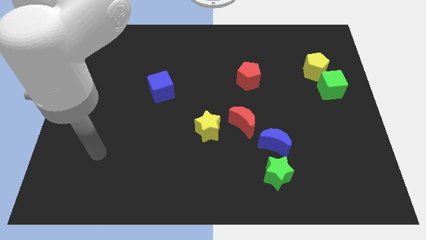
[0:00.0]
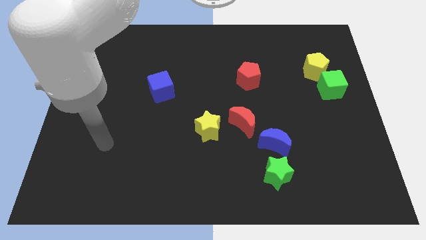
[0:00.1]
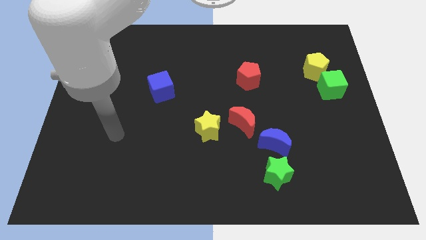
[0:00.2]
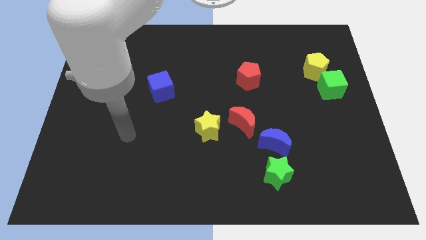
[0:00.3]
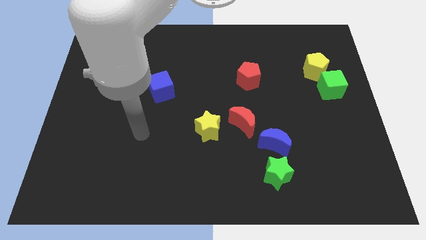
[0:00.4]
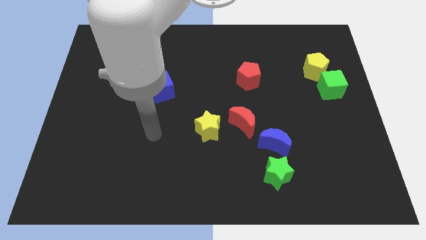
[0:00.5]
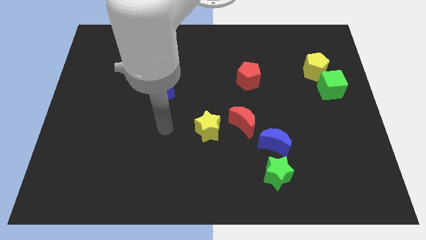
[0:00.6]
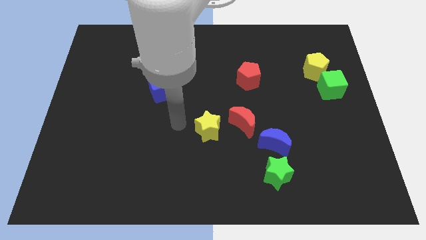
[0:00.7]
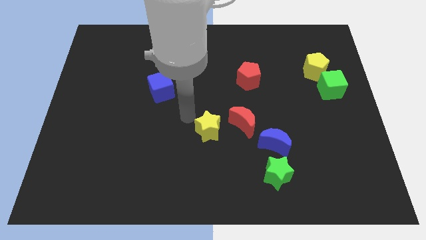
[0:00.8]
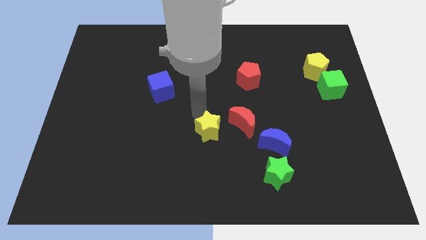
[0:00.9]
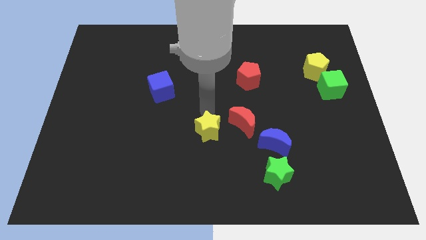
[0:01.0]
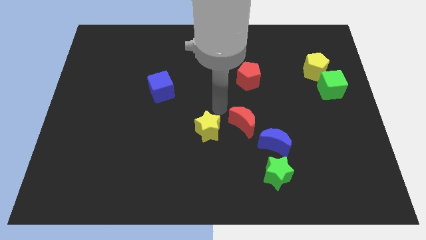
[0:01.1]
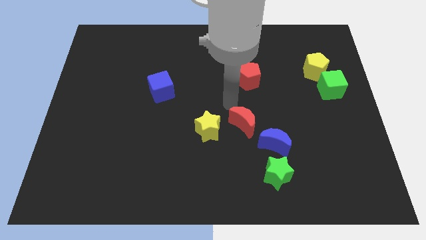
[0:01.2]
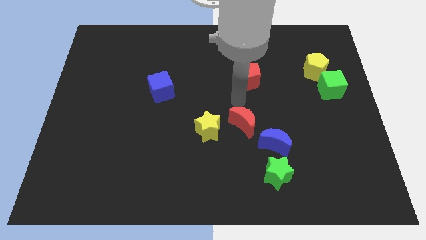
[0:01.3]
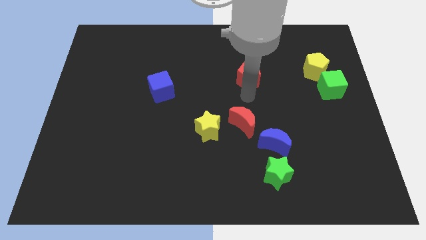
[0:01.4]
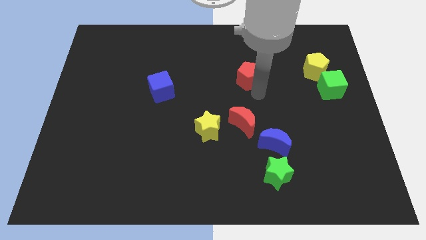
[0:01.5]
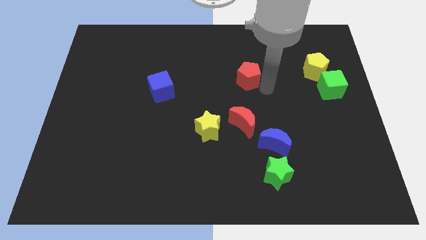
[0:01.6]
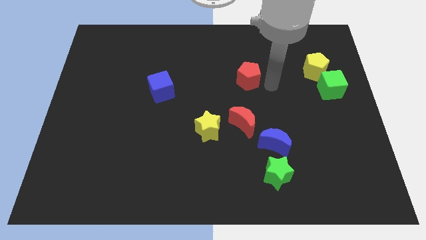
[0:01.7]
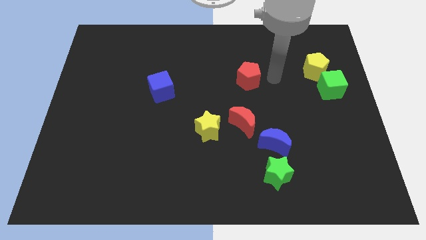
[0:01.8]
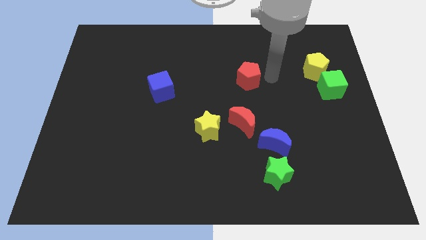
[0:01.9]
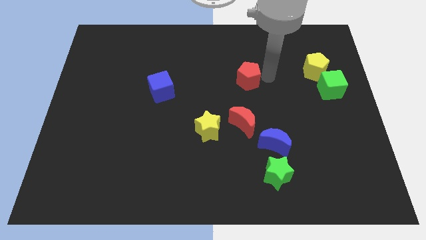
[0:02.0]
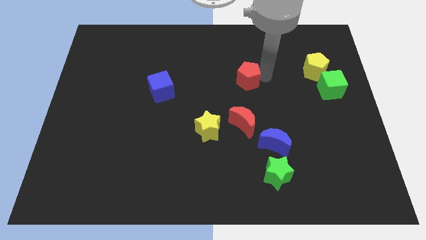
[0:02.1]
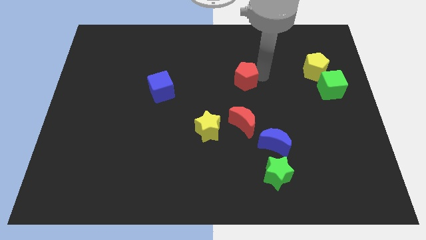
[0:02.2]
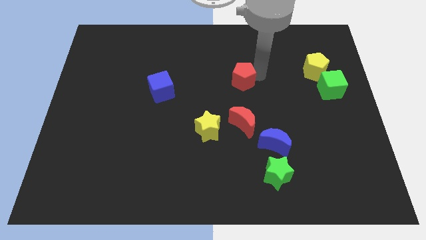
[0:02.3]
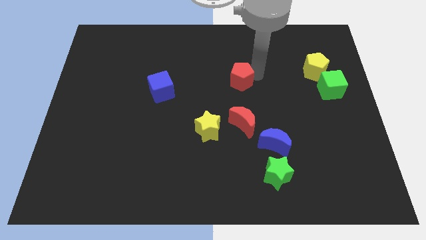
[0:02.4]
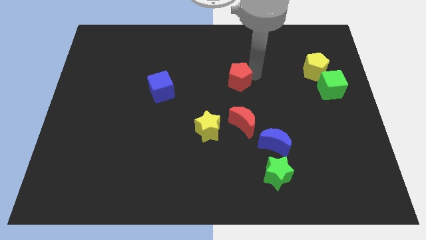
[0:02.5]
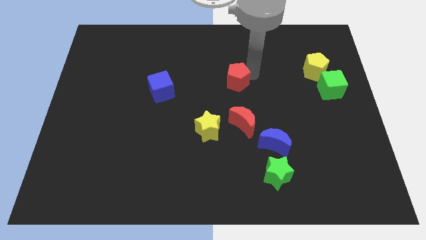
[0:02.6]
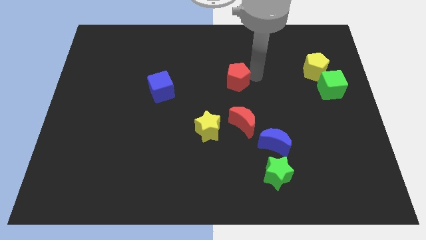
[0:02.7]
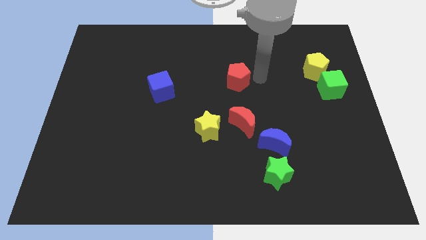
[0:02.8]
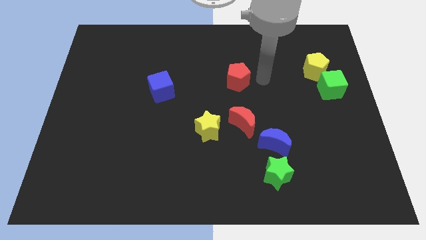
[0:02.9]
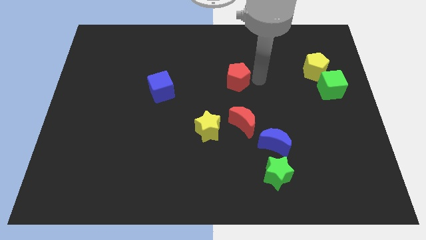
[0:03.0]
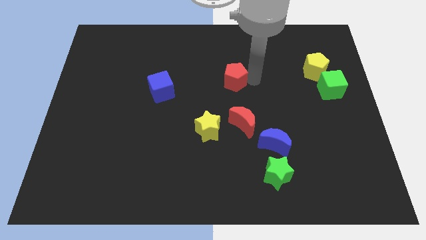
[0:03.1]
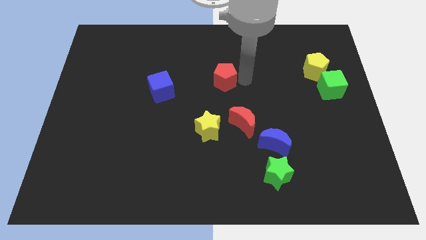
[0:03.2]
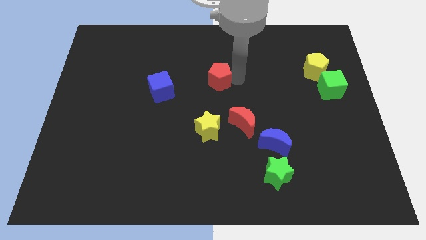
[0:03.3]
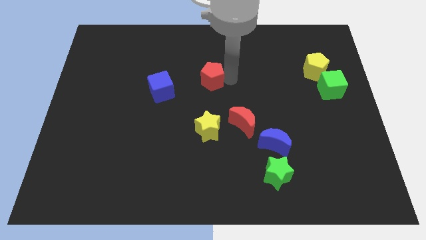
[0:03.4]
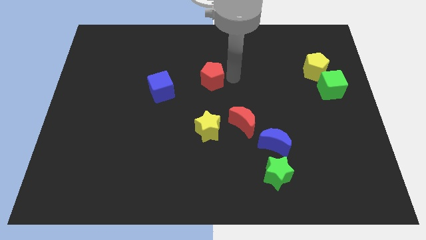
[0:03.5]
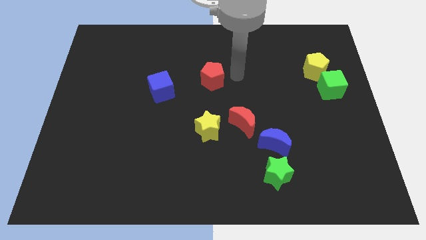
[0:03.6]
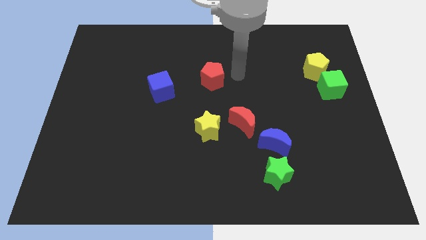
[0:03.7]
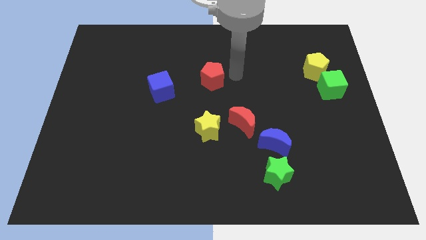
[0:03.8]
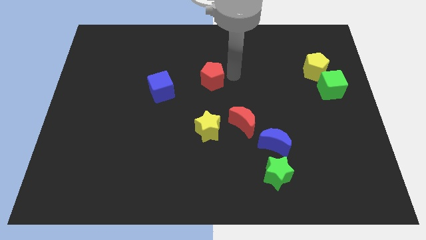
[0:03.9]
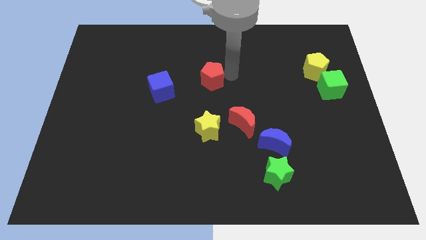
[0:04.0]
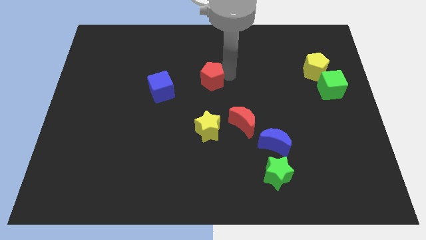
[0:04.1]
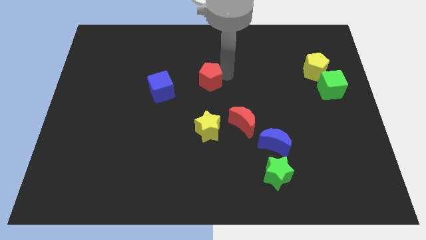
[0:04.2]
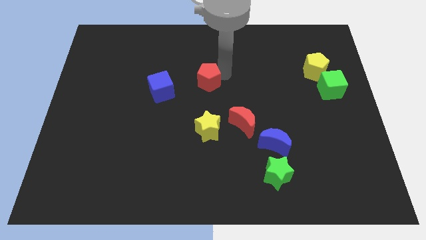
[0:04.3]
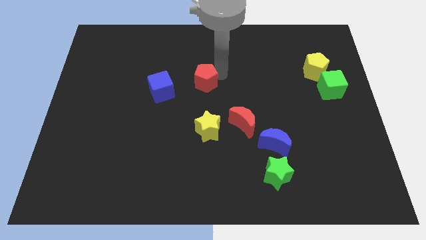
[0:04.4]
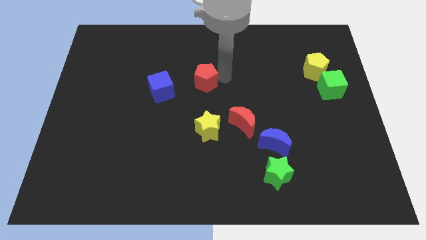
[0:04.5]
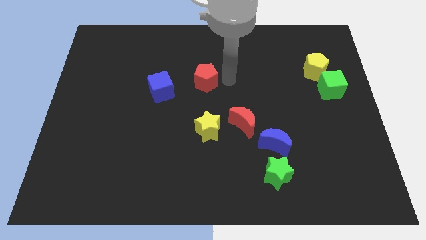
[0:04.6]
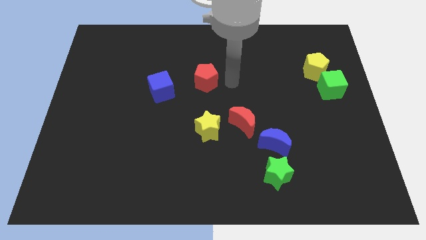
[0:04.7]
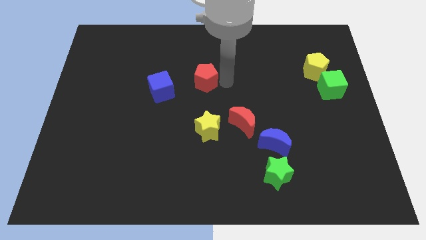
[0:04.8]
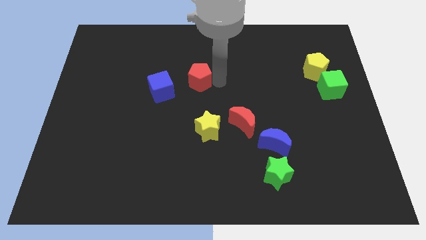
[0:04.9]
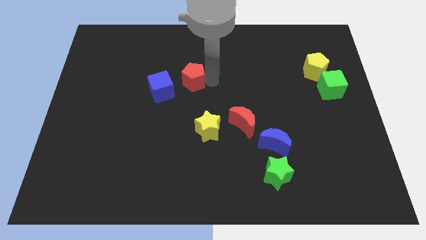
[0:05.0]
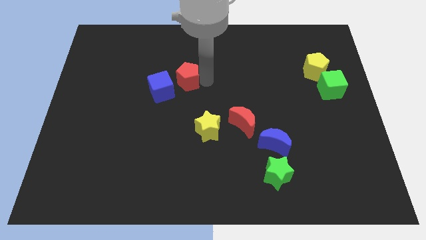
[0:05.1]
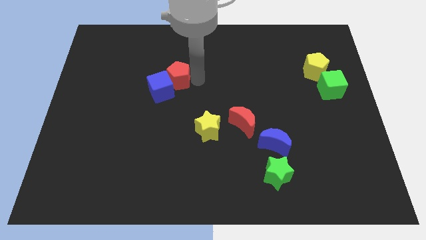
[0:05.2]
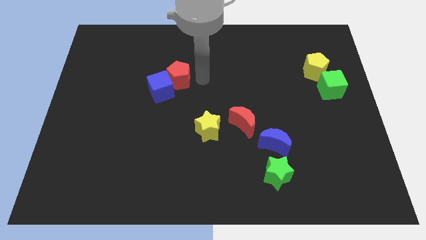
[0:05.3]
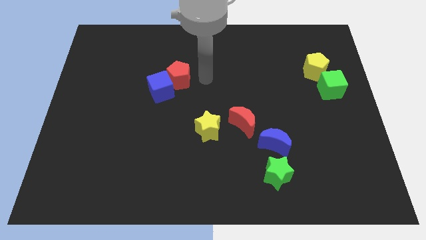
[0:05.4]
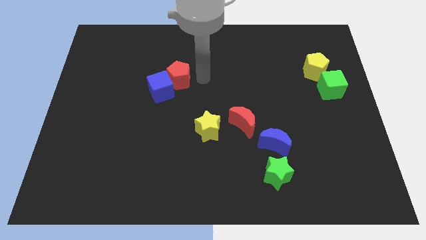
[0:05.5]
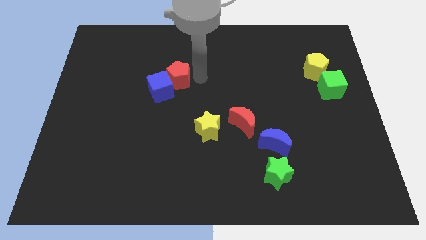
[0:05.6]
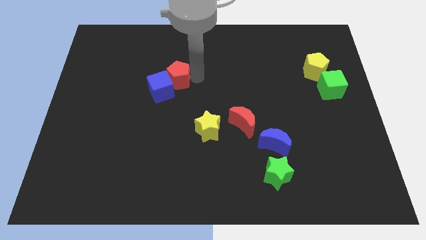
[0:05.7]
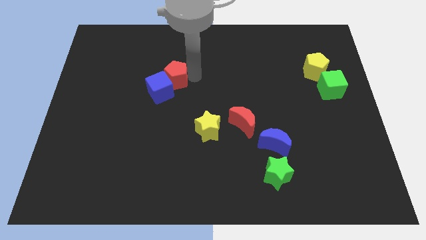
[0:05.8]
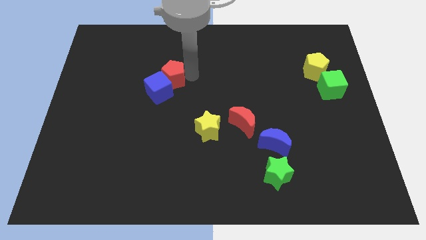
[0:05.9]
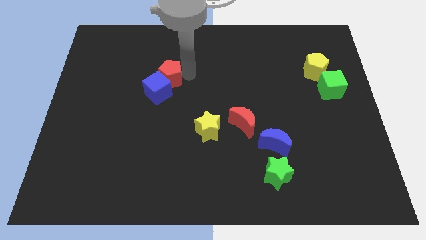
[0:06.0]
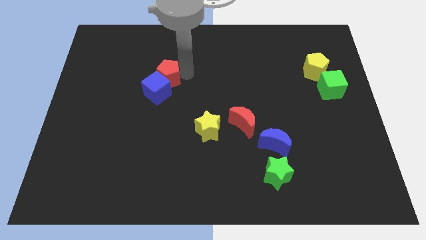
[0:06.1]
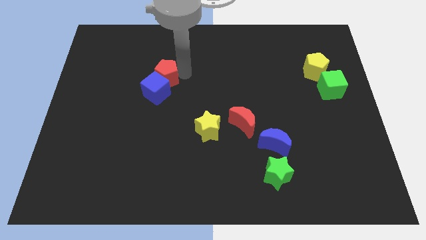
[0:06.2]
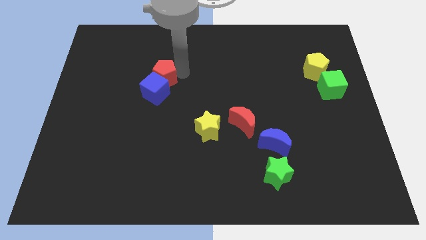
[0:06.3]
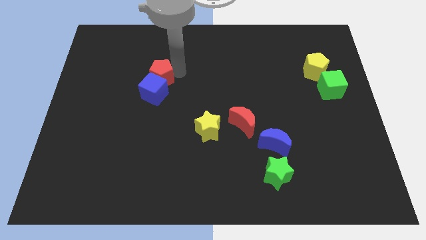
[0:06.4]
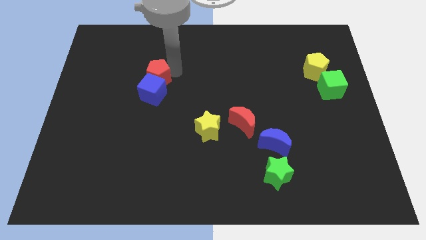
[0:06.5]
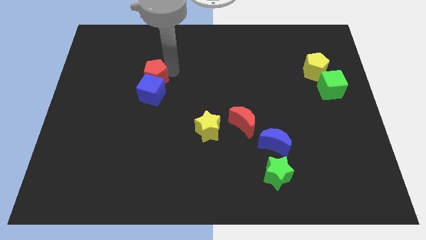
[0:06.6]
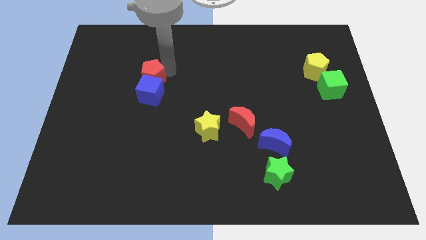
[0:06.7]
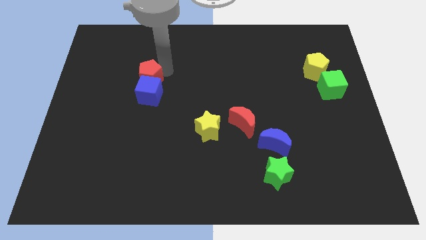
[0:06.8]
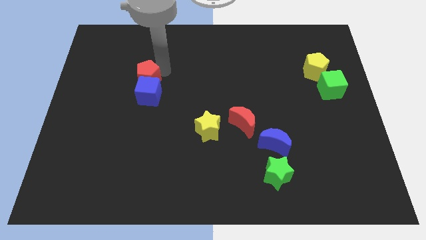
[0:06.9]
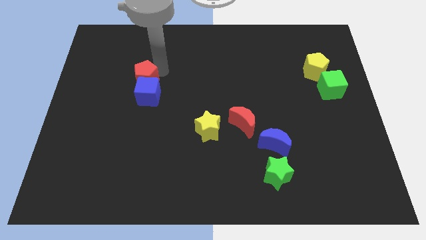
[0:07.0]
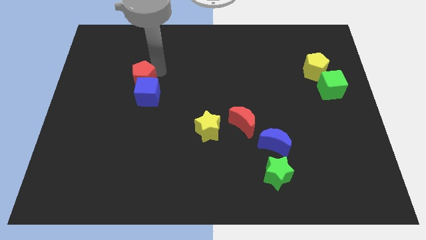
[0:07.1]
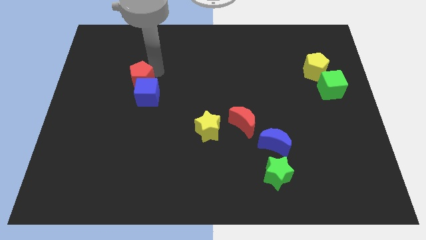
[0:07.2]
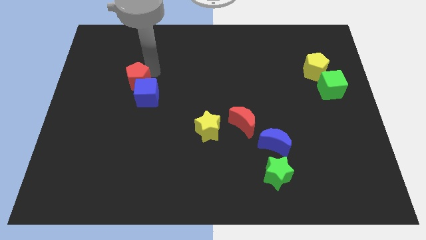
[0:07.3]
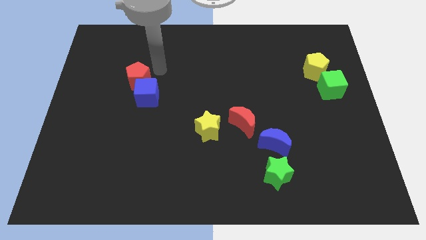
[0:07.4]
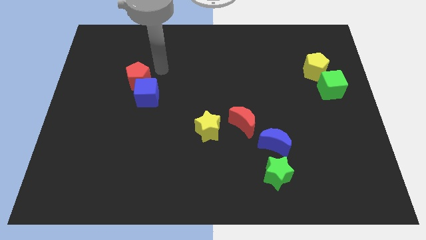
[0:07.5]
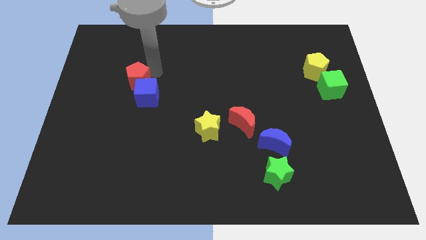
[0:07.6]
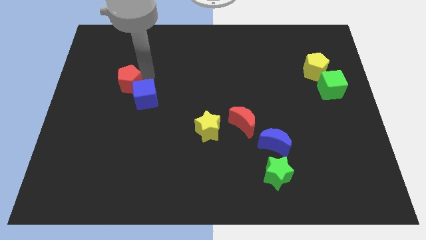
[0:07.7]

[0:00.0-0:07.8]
move the red pentagon just left of the blue cube
